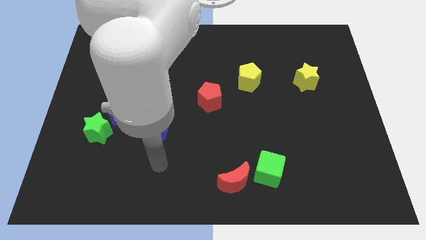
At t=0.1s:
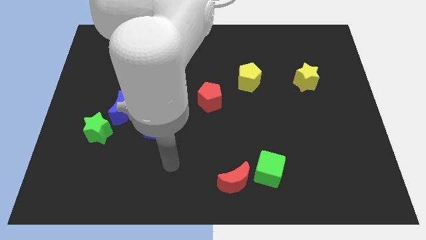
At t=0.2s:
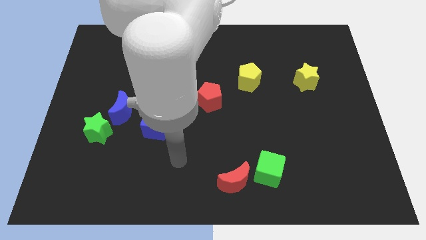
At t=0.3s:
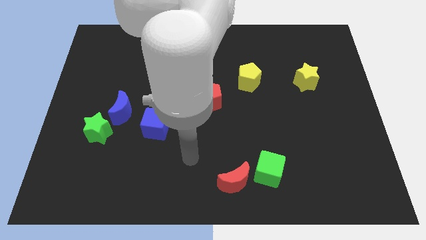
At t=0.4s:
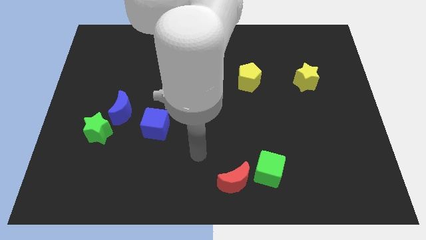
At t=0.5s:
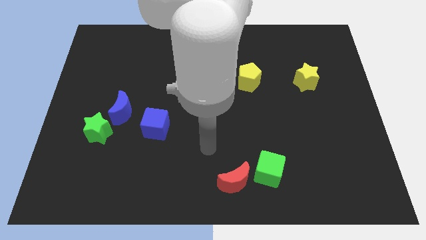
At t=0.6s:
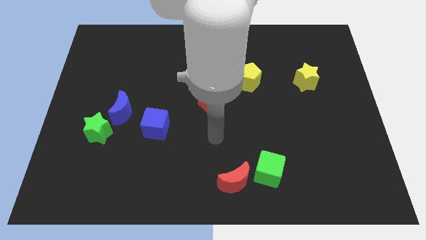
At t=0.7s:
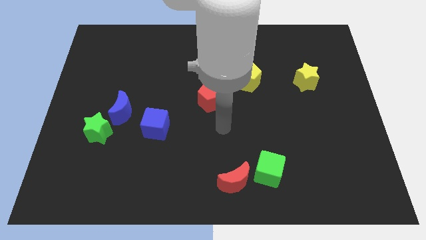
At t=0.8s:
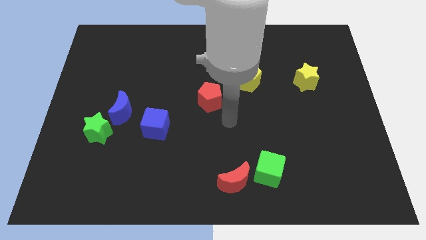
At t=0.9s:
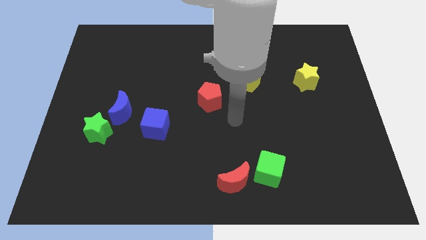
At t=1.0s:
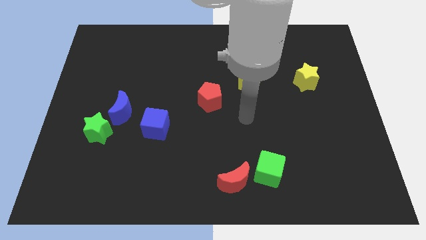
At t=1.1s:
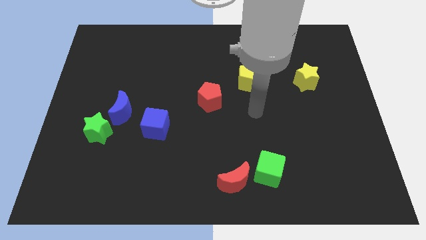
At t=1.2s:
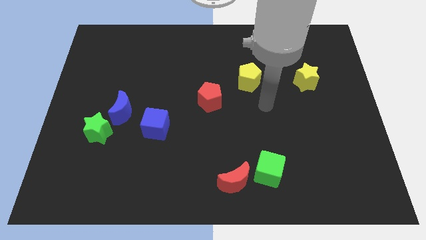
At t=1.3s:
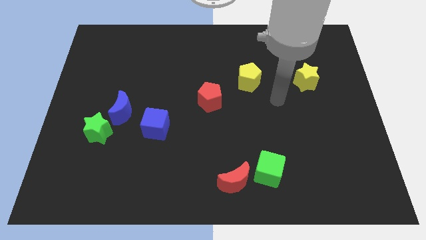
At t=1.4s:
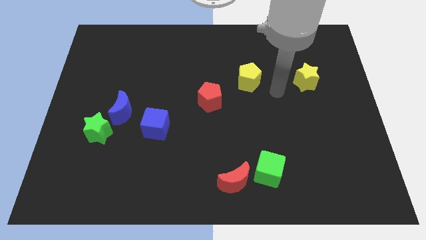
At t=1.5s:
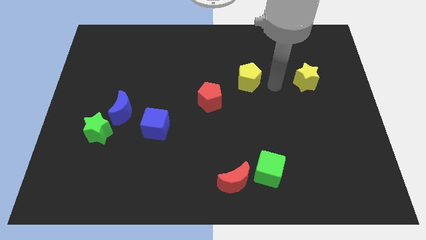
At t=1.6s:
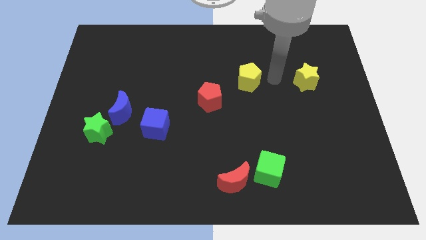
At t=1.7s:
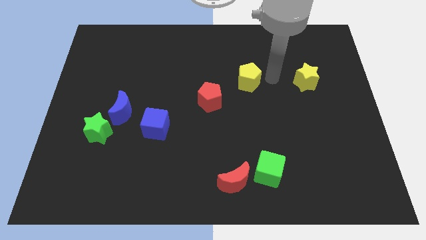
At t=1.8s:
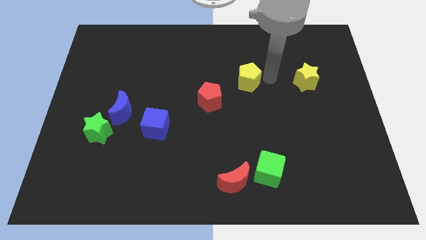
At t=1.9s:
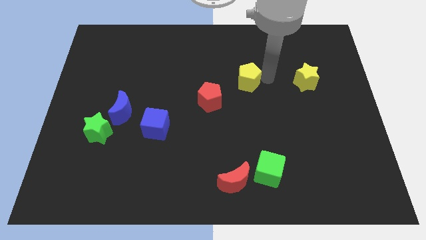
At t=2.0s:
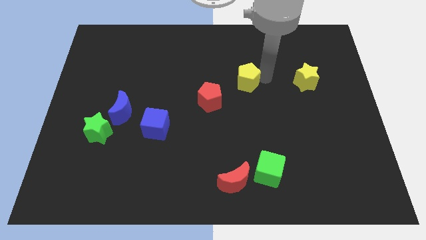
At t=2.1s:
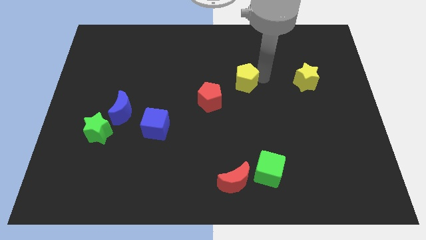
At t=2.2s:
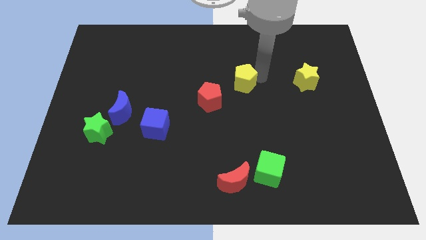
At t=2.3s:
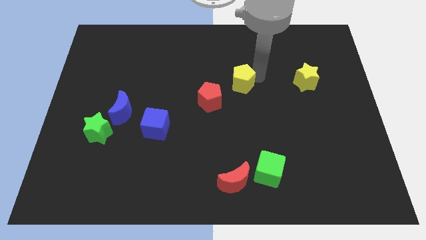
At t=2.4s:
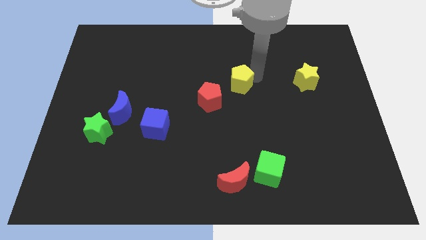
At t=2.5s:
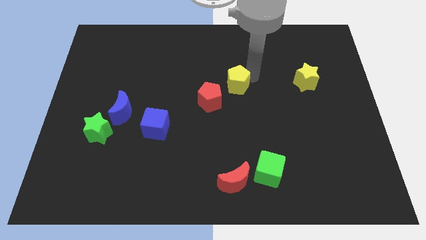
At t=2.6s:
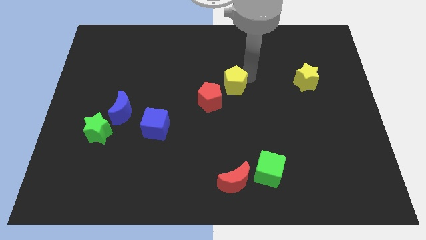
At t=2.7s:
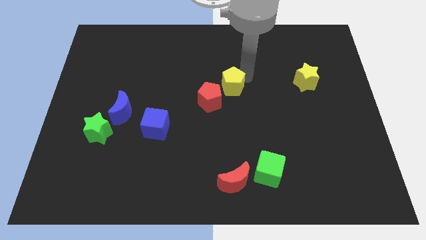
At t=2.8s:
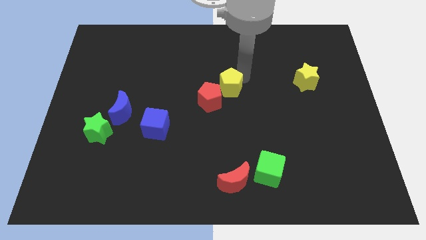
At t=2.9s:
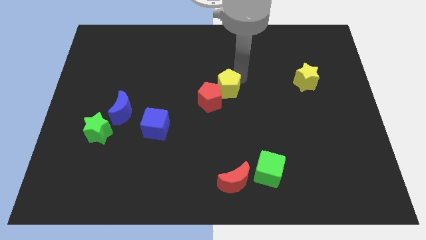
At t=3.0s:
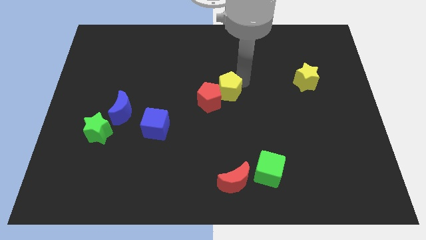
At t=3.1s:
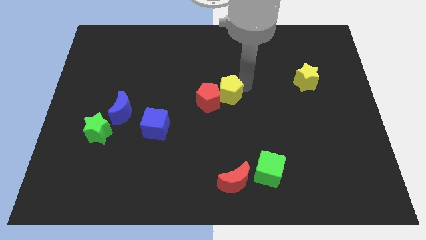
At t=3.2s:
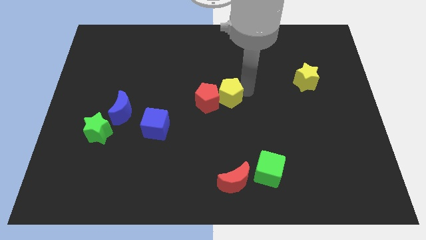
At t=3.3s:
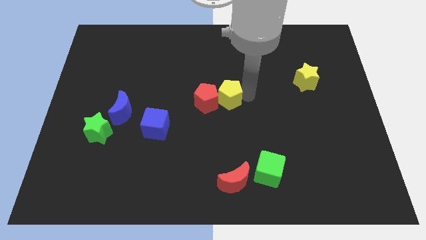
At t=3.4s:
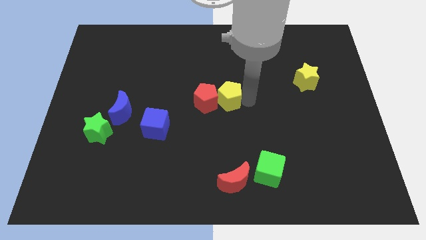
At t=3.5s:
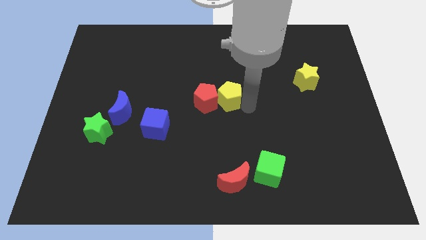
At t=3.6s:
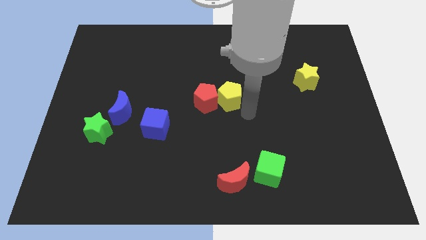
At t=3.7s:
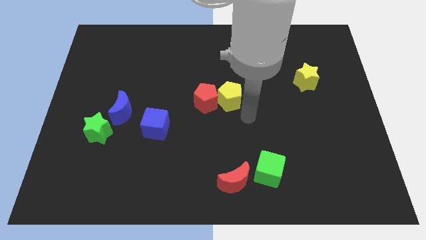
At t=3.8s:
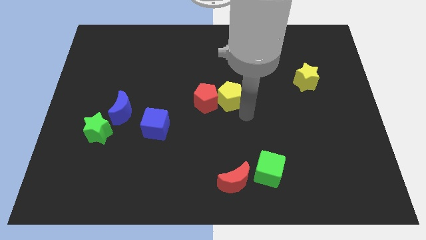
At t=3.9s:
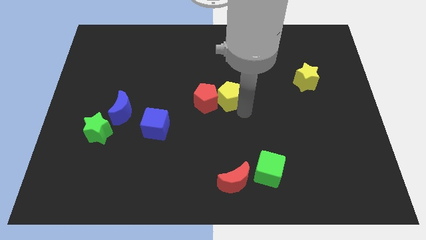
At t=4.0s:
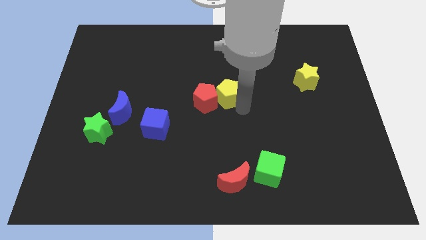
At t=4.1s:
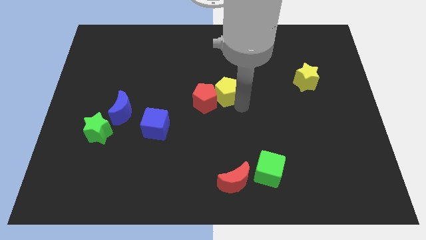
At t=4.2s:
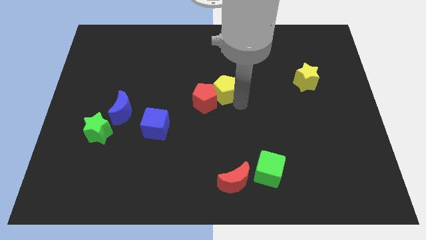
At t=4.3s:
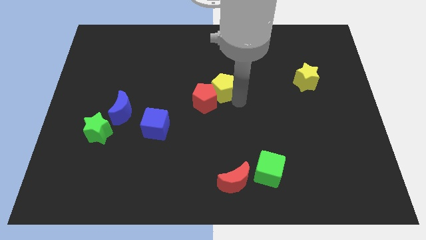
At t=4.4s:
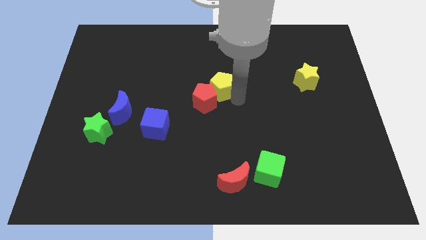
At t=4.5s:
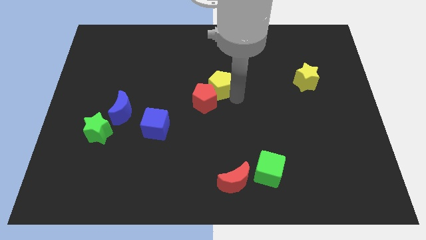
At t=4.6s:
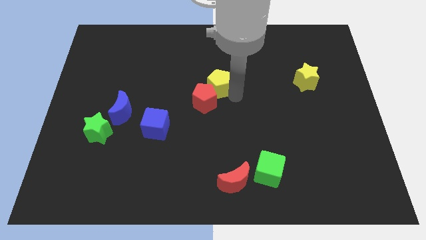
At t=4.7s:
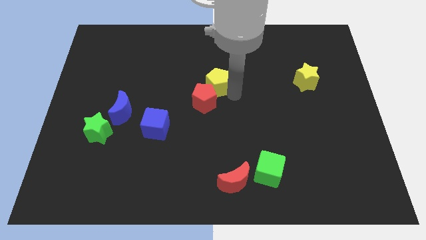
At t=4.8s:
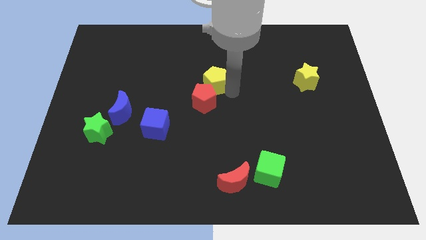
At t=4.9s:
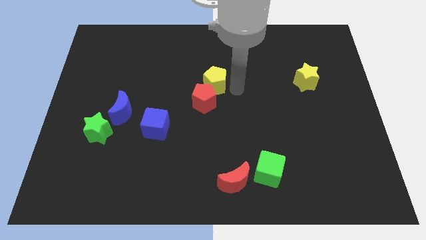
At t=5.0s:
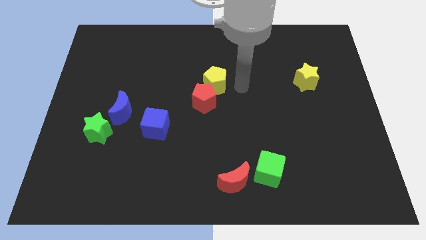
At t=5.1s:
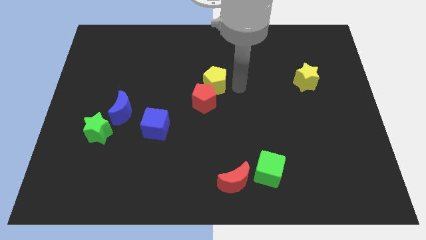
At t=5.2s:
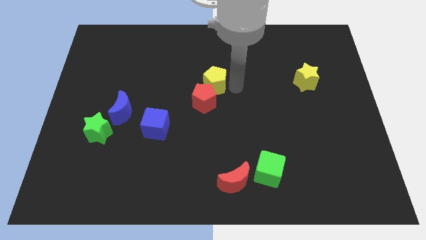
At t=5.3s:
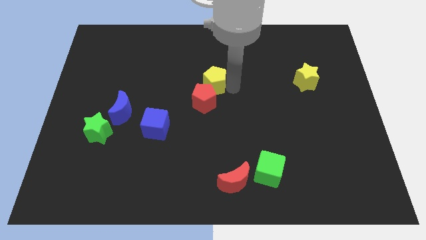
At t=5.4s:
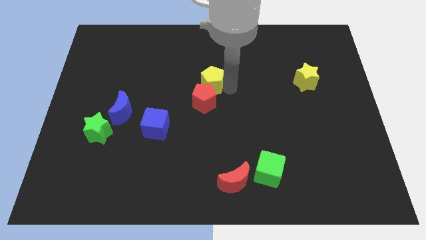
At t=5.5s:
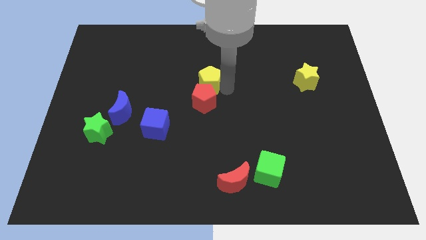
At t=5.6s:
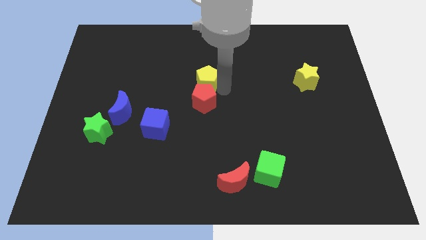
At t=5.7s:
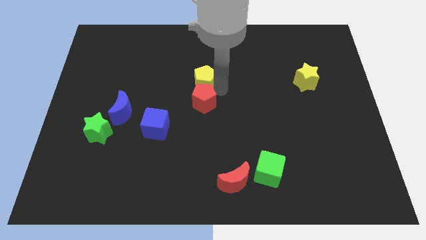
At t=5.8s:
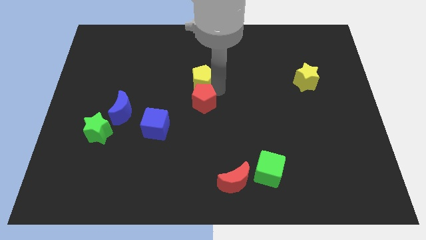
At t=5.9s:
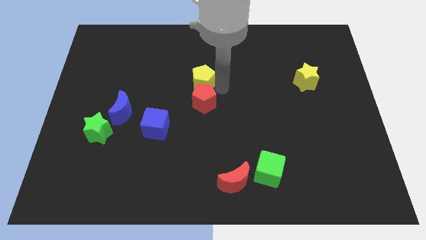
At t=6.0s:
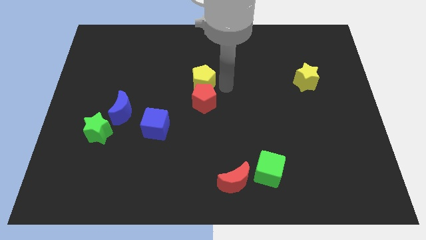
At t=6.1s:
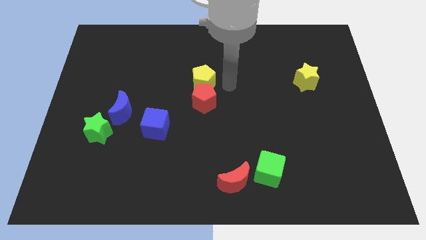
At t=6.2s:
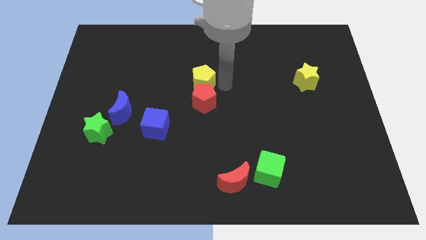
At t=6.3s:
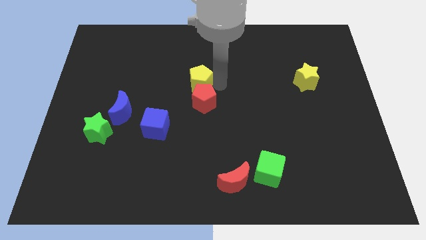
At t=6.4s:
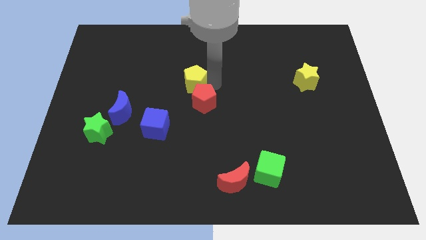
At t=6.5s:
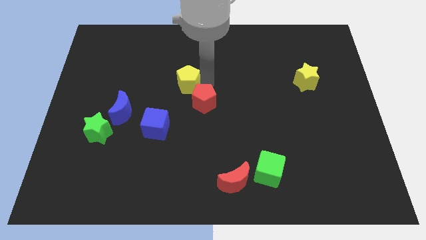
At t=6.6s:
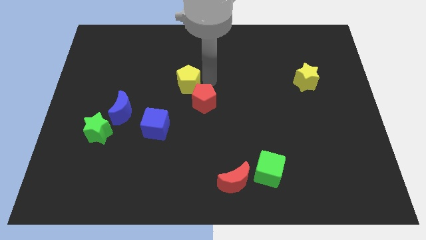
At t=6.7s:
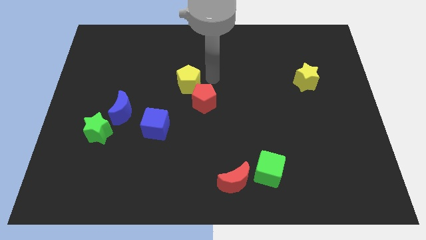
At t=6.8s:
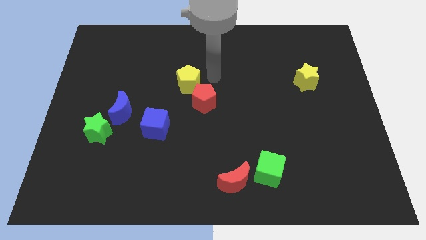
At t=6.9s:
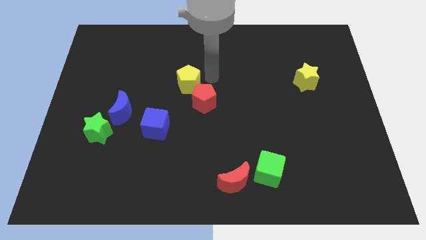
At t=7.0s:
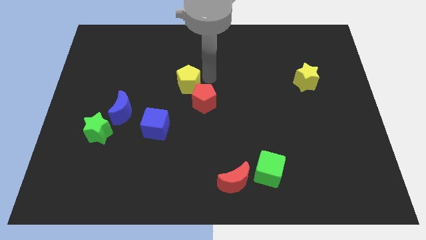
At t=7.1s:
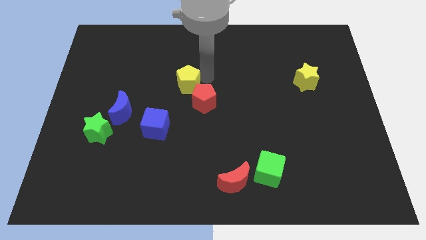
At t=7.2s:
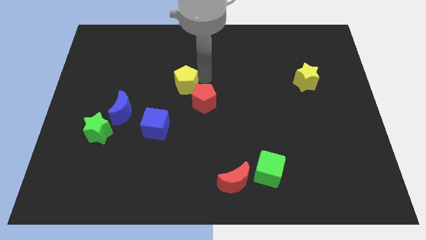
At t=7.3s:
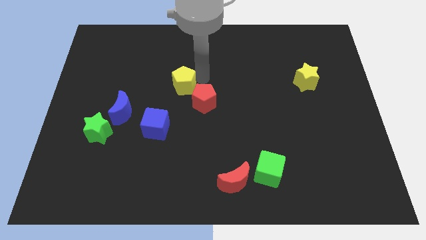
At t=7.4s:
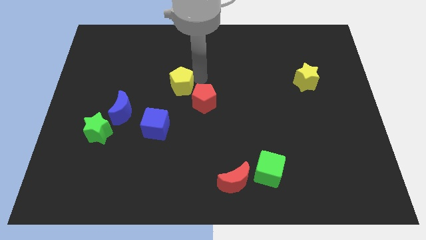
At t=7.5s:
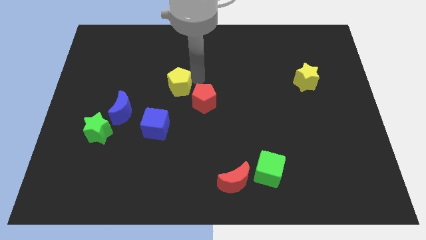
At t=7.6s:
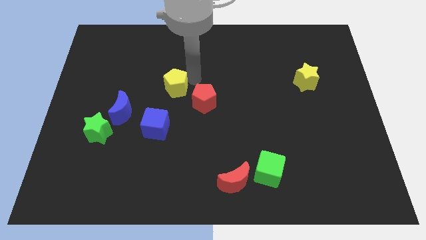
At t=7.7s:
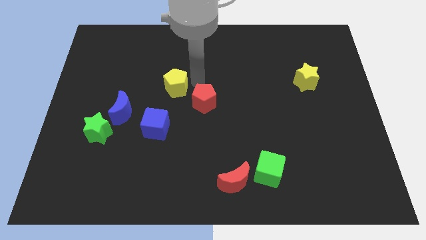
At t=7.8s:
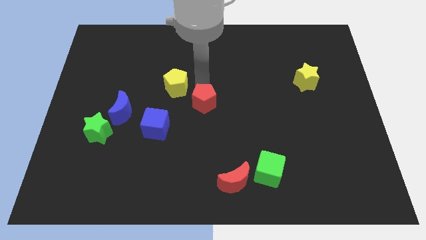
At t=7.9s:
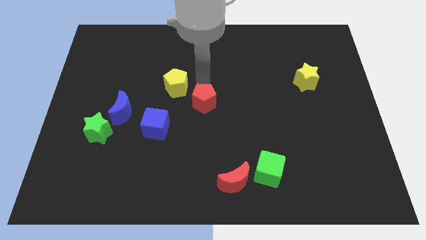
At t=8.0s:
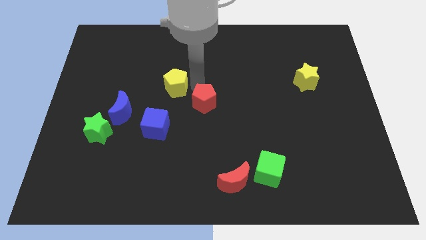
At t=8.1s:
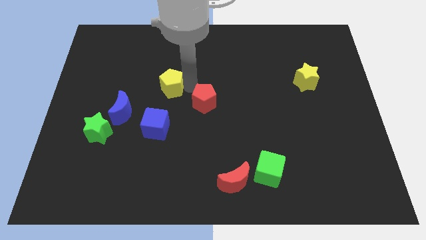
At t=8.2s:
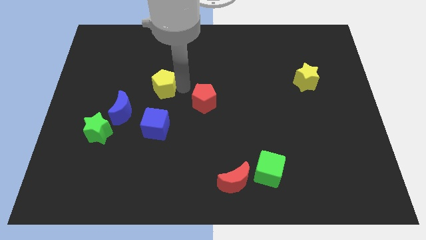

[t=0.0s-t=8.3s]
push the yellow pentagon to the left
